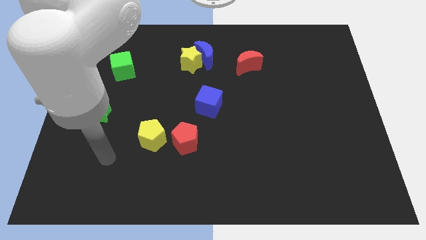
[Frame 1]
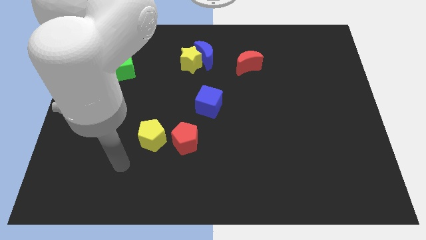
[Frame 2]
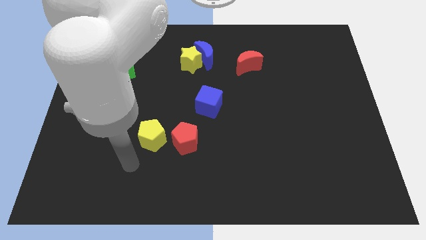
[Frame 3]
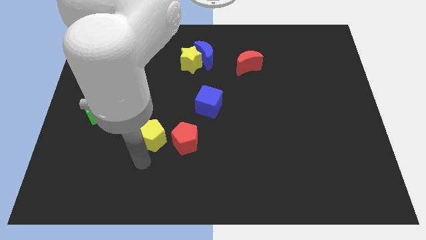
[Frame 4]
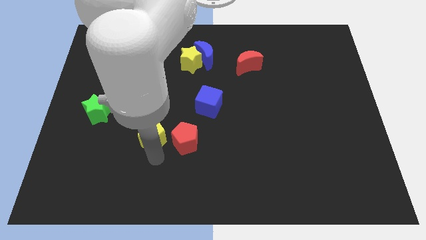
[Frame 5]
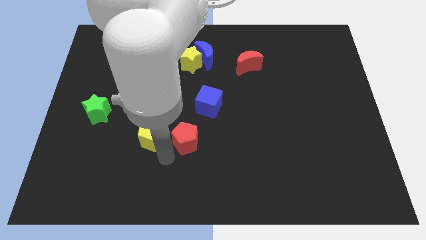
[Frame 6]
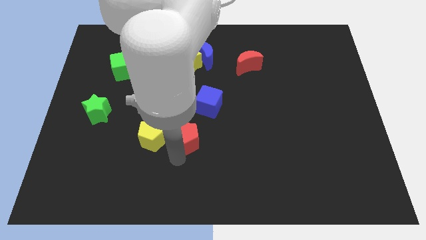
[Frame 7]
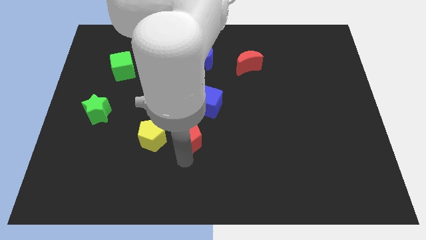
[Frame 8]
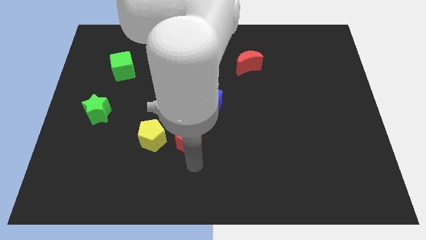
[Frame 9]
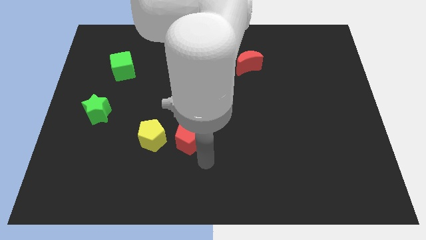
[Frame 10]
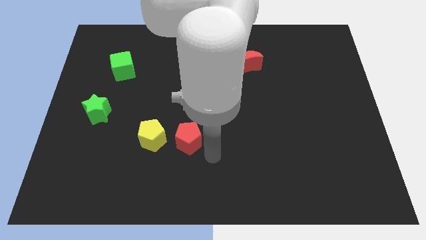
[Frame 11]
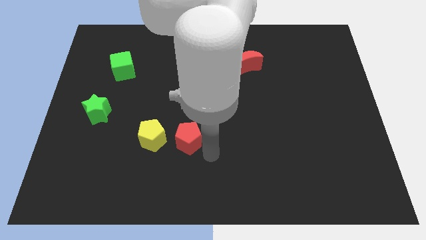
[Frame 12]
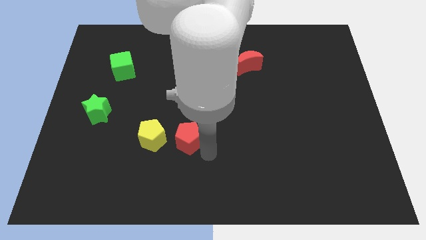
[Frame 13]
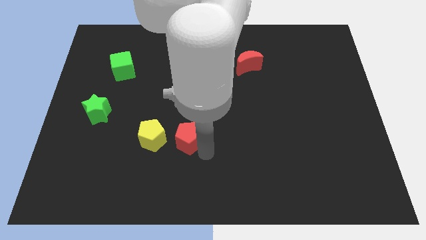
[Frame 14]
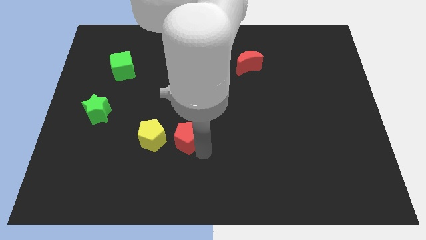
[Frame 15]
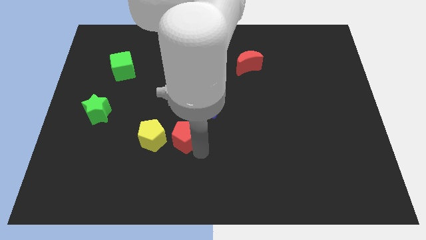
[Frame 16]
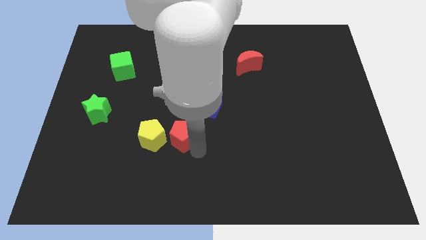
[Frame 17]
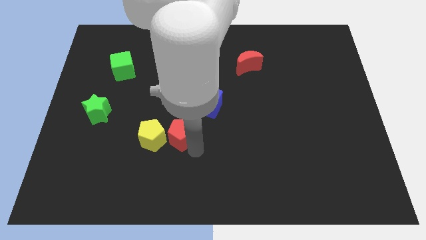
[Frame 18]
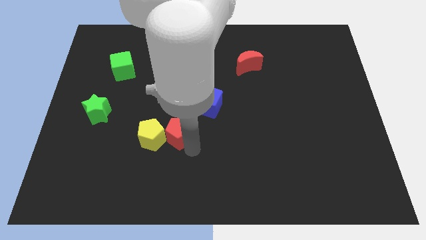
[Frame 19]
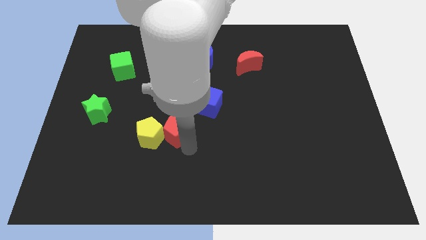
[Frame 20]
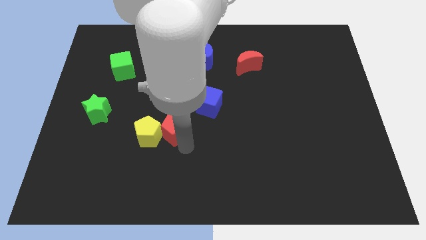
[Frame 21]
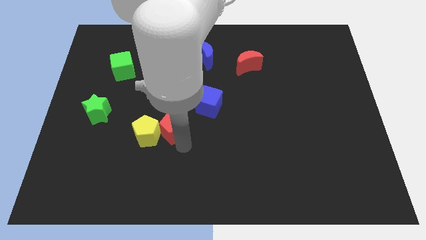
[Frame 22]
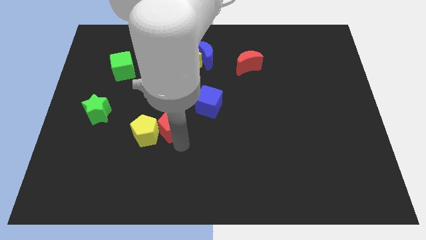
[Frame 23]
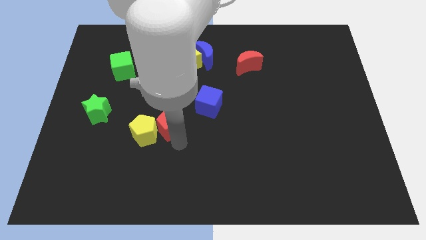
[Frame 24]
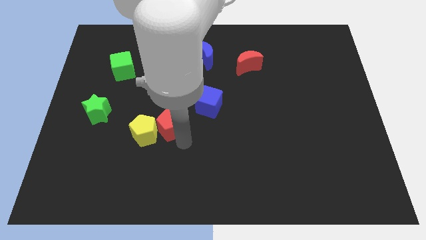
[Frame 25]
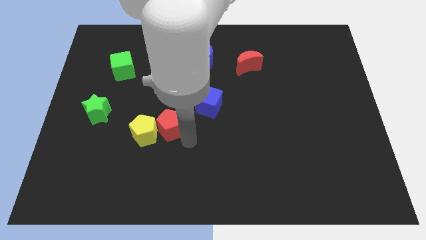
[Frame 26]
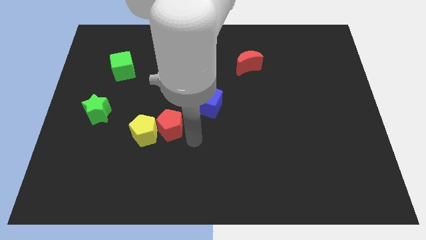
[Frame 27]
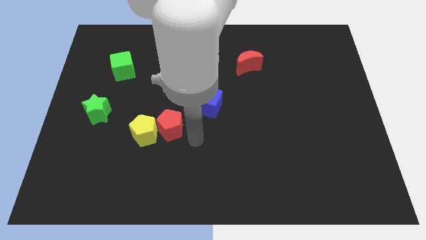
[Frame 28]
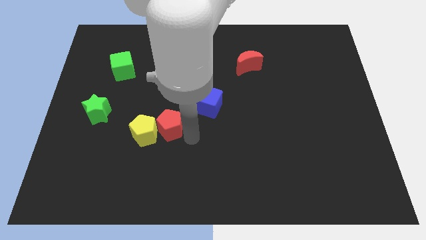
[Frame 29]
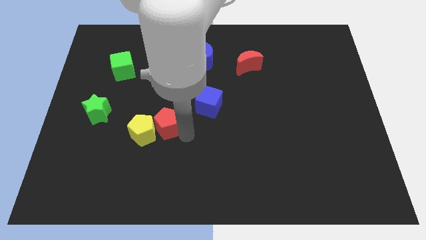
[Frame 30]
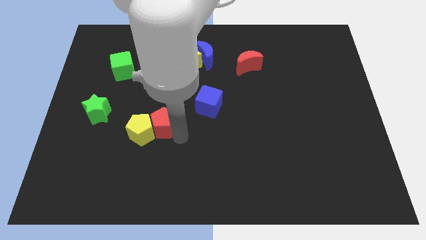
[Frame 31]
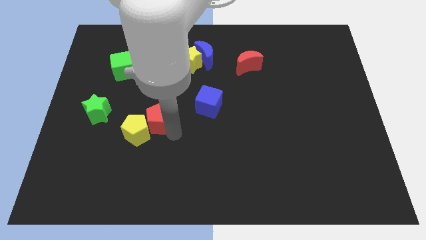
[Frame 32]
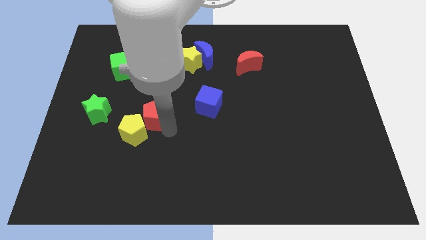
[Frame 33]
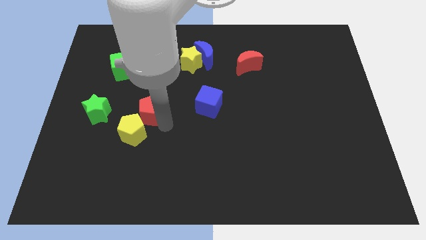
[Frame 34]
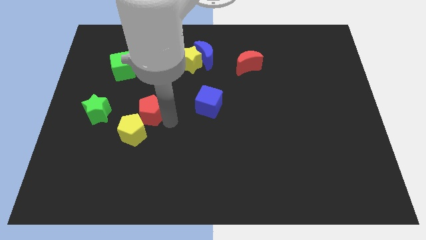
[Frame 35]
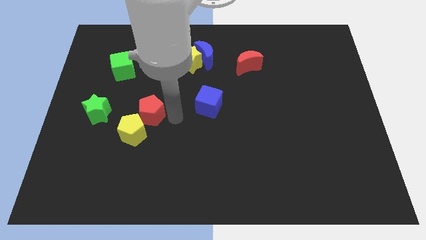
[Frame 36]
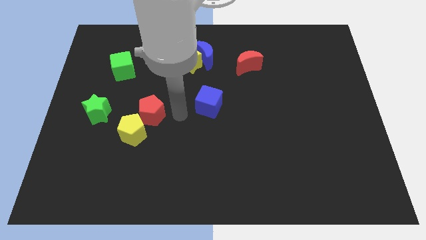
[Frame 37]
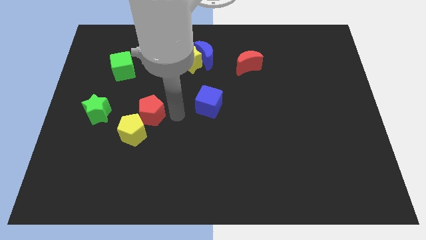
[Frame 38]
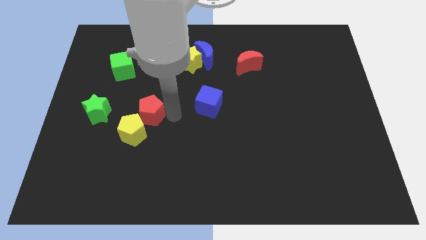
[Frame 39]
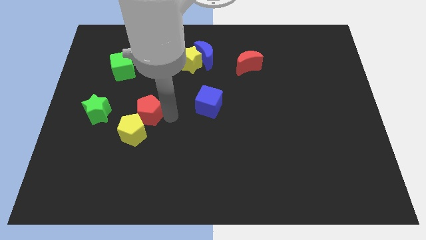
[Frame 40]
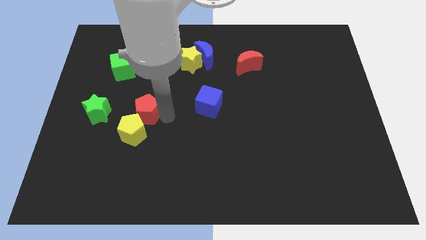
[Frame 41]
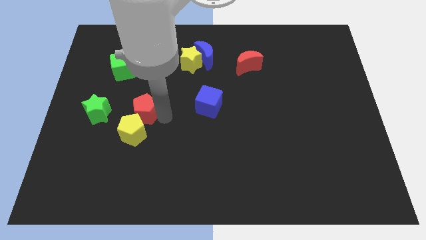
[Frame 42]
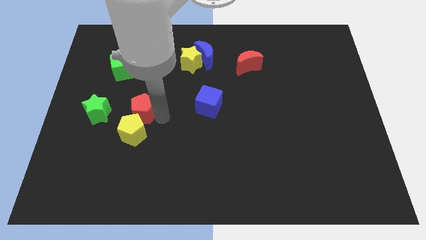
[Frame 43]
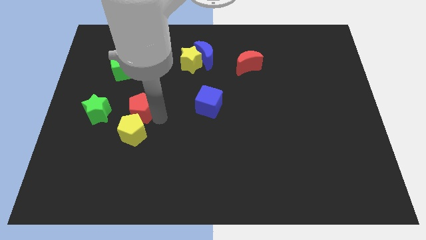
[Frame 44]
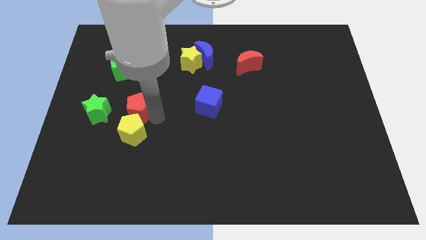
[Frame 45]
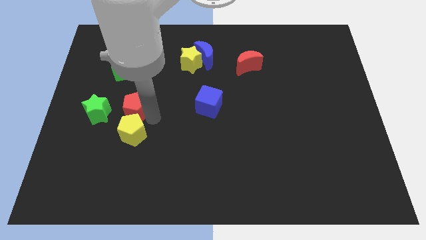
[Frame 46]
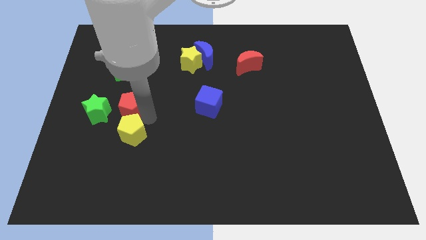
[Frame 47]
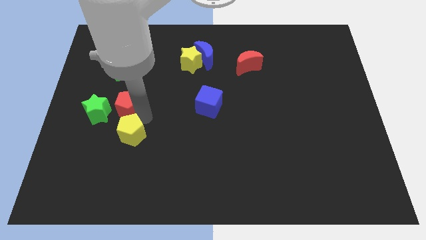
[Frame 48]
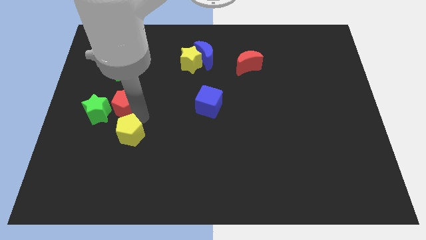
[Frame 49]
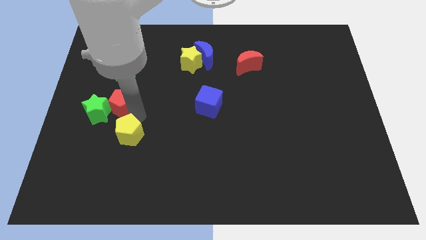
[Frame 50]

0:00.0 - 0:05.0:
push the red pentagon next to the green star

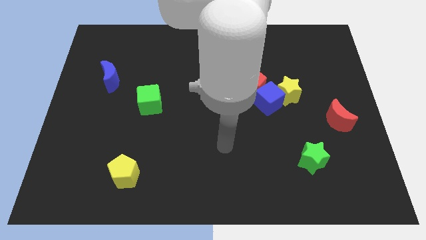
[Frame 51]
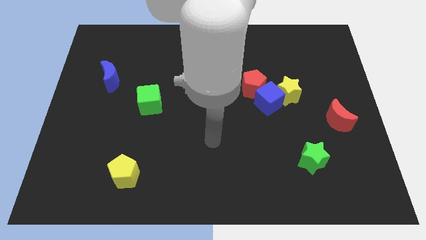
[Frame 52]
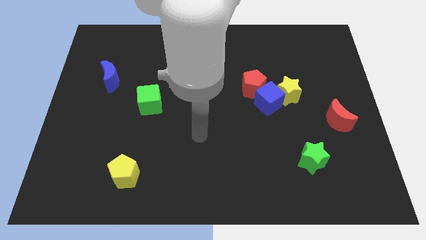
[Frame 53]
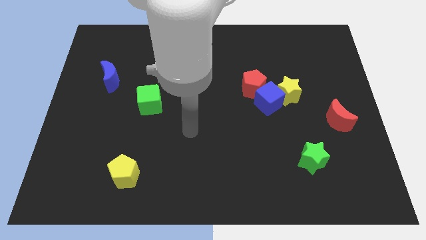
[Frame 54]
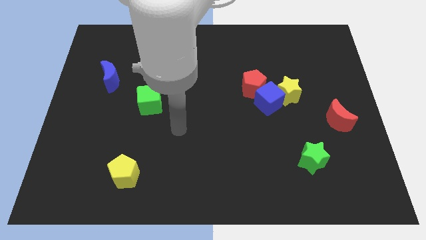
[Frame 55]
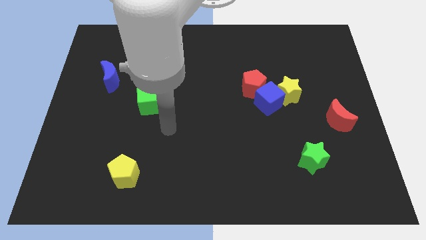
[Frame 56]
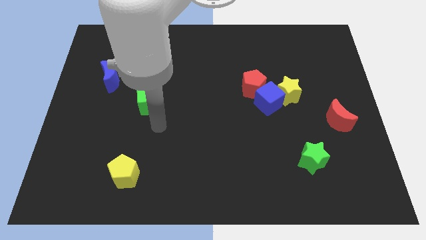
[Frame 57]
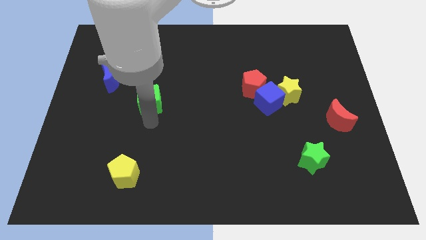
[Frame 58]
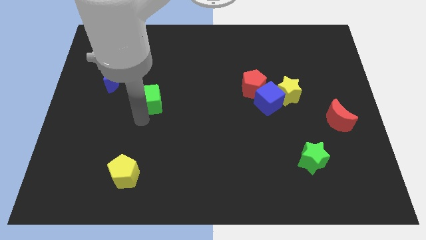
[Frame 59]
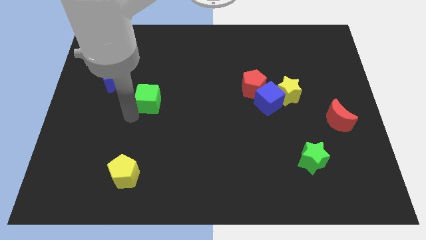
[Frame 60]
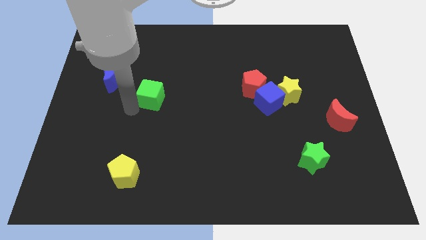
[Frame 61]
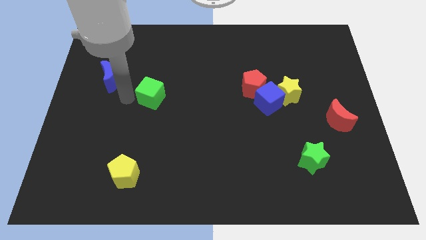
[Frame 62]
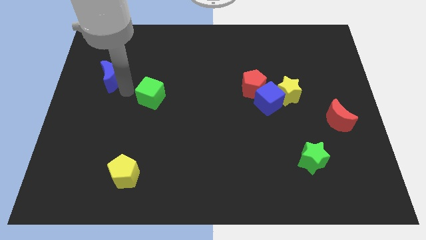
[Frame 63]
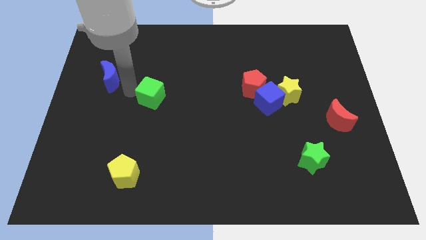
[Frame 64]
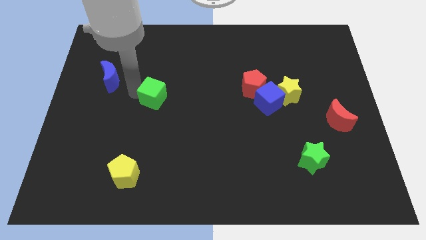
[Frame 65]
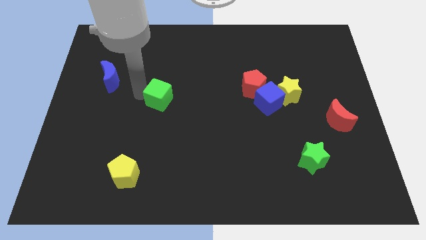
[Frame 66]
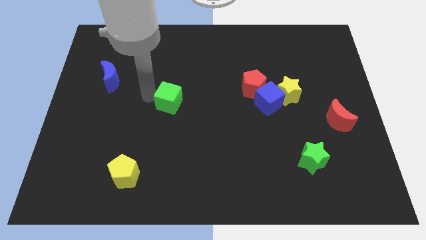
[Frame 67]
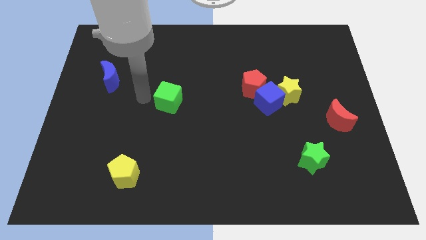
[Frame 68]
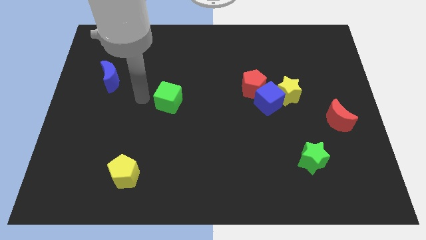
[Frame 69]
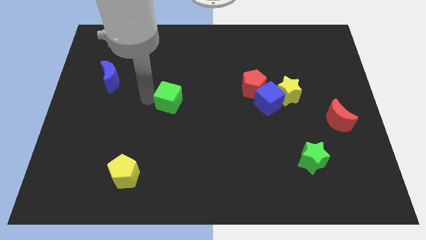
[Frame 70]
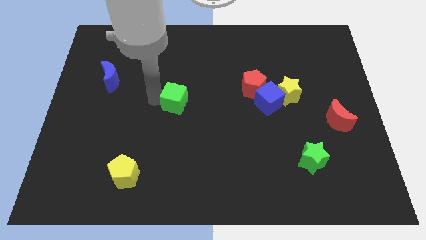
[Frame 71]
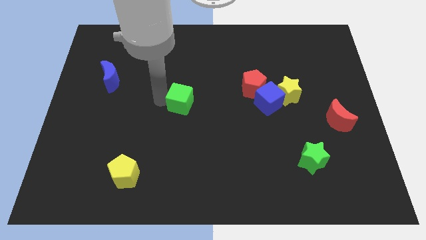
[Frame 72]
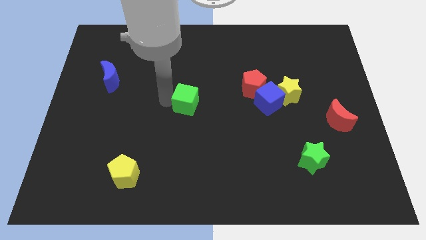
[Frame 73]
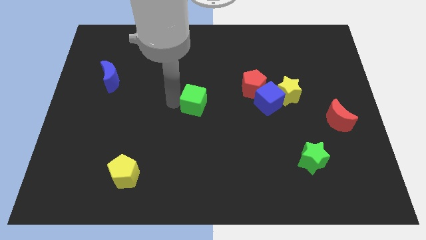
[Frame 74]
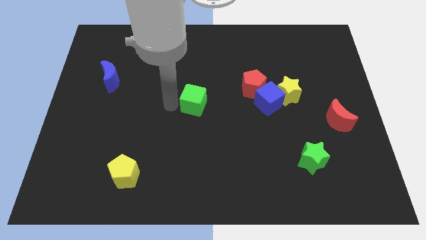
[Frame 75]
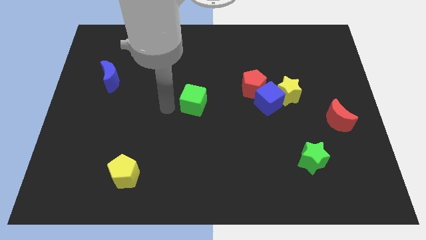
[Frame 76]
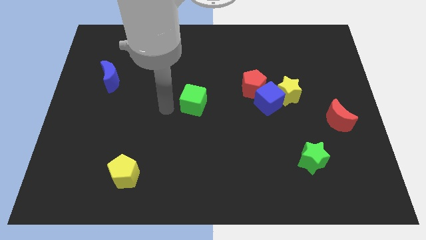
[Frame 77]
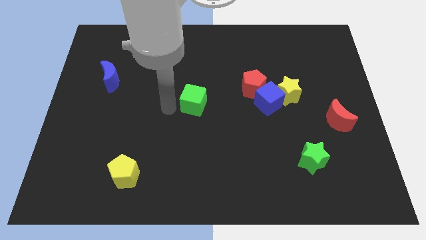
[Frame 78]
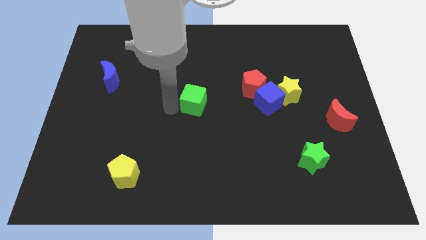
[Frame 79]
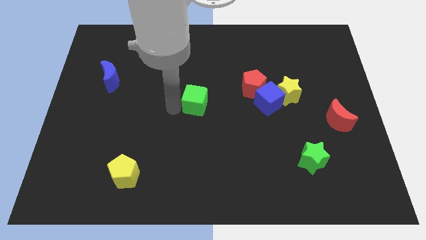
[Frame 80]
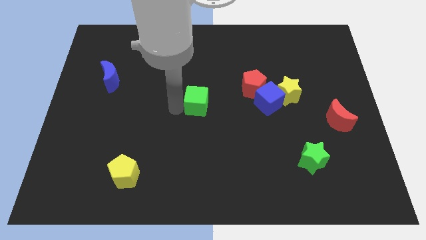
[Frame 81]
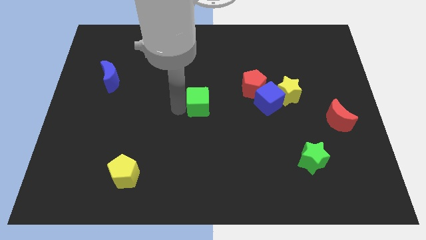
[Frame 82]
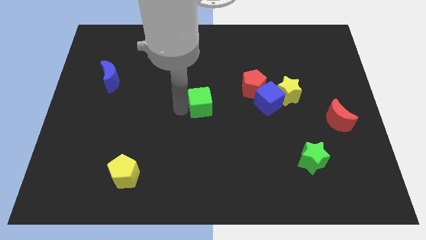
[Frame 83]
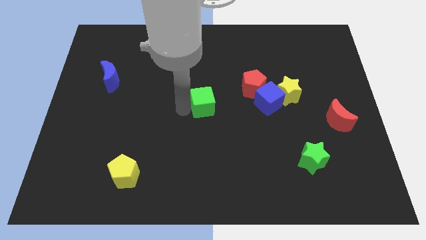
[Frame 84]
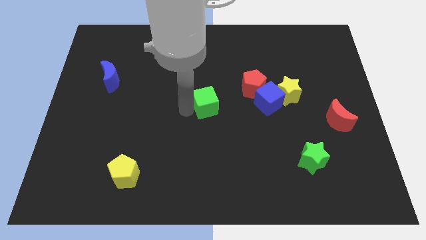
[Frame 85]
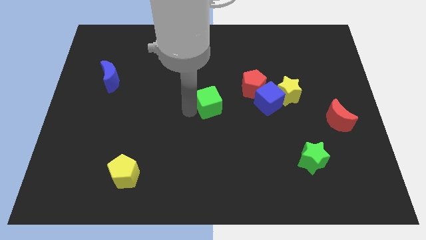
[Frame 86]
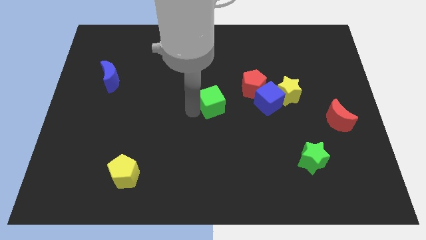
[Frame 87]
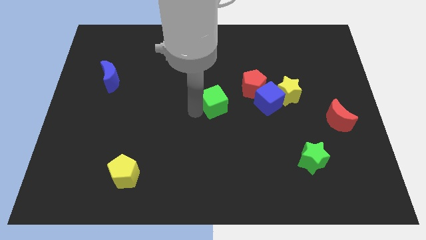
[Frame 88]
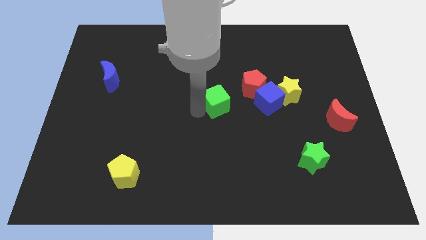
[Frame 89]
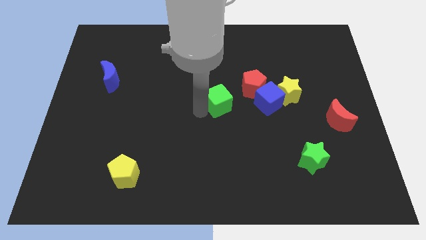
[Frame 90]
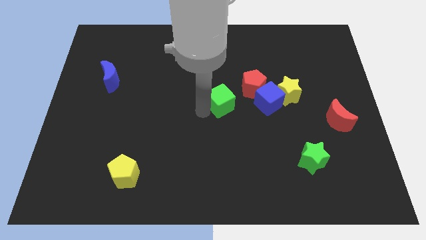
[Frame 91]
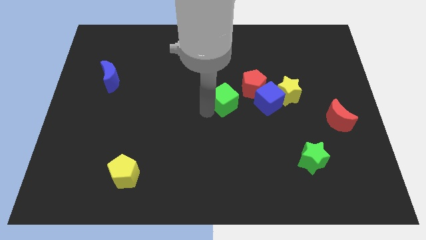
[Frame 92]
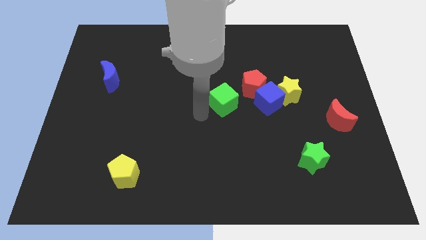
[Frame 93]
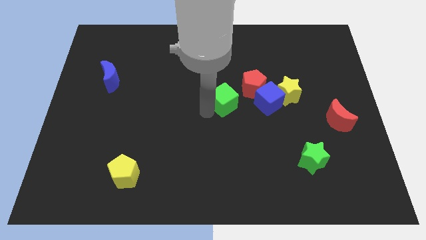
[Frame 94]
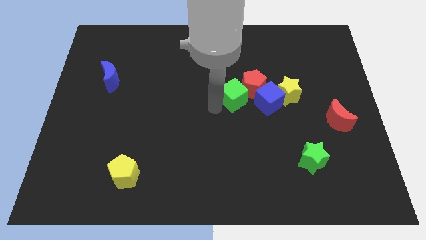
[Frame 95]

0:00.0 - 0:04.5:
put the green cube next to the red pentagon
